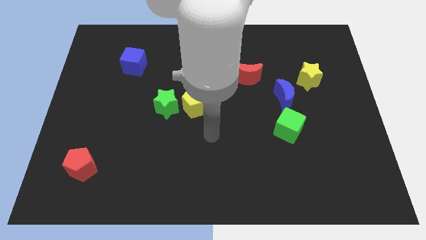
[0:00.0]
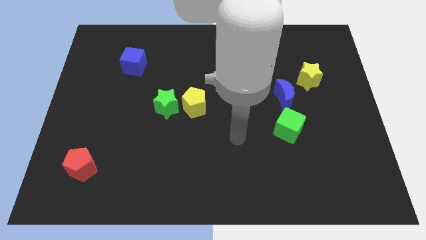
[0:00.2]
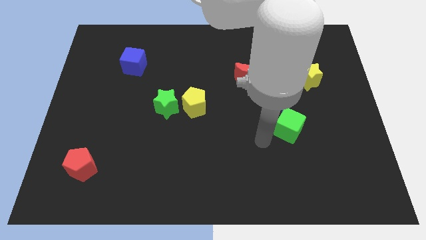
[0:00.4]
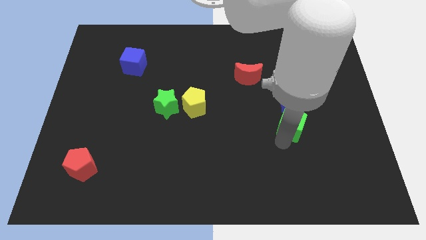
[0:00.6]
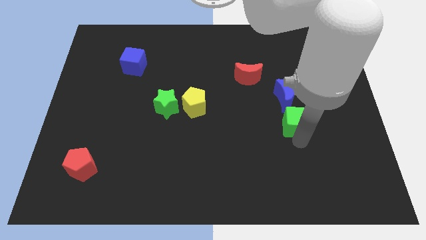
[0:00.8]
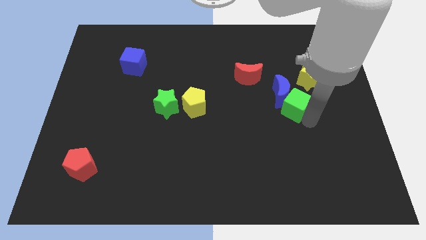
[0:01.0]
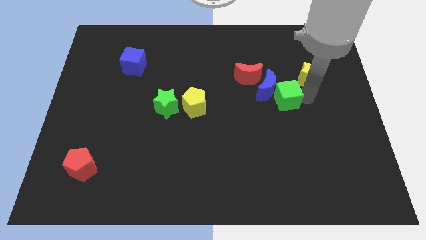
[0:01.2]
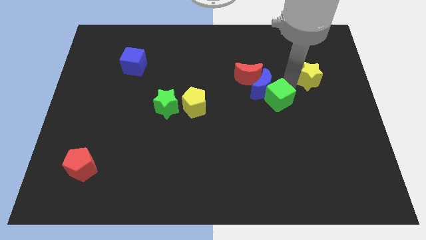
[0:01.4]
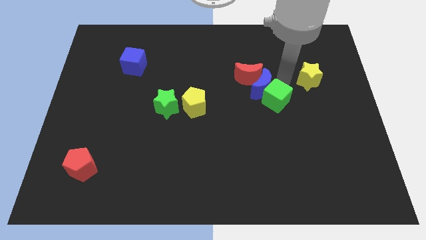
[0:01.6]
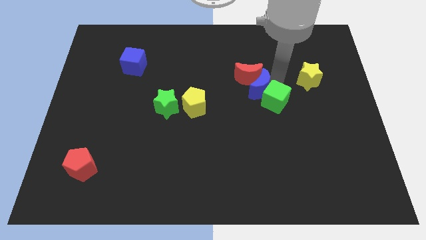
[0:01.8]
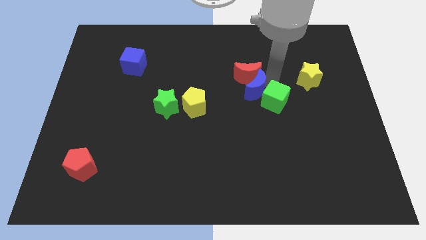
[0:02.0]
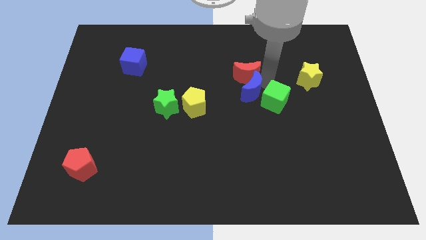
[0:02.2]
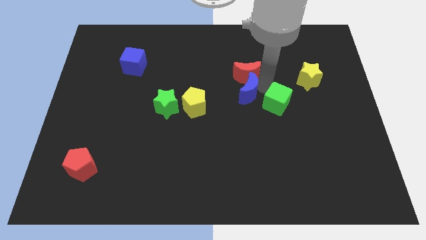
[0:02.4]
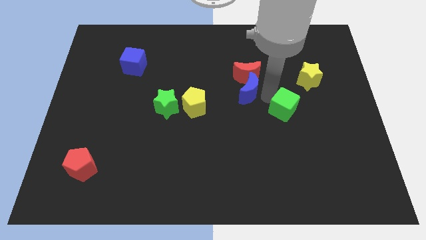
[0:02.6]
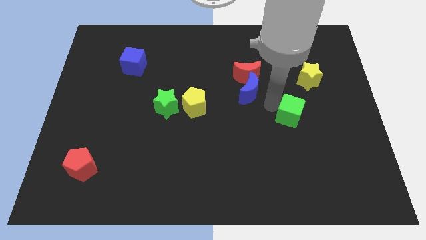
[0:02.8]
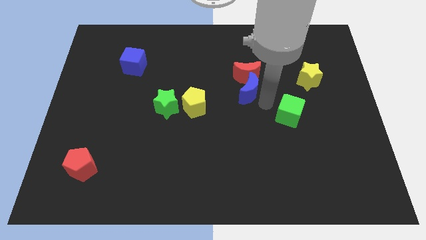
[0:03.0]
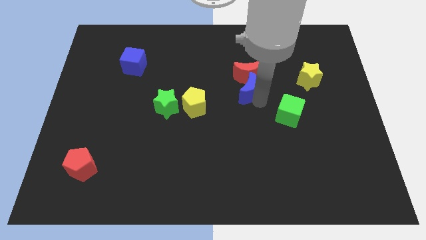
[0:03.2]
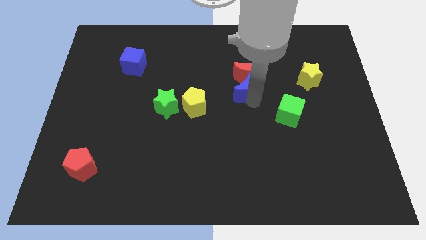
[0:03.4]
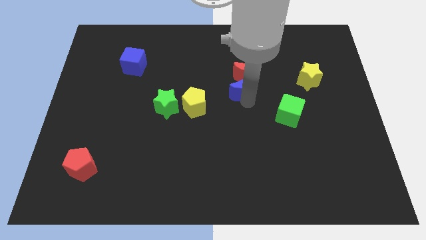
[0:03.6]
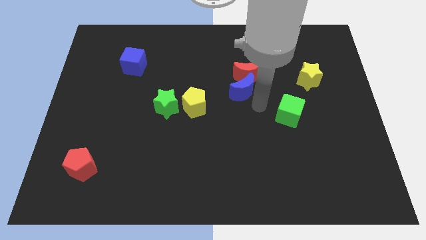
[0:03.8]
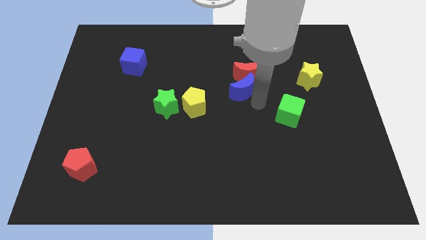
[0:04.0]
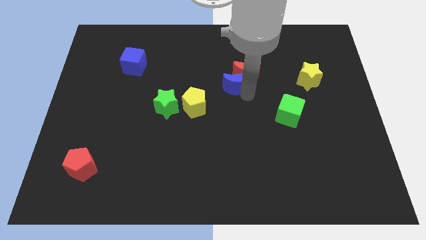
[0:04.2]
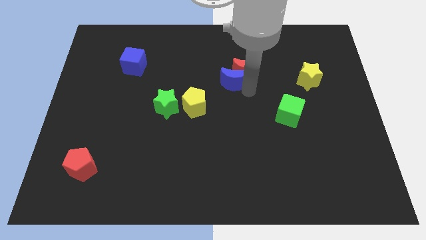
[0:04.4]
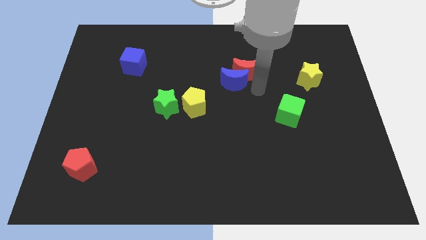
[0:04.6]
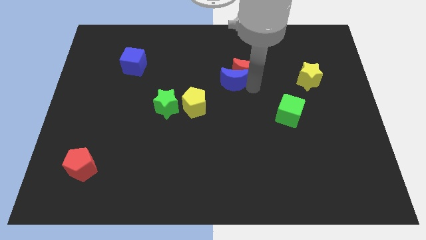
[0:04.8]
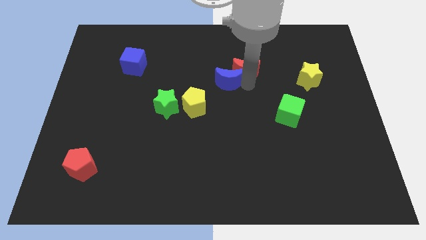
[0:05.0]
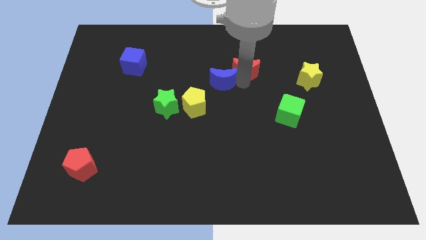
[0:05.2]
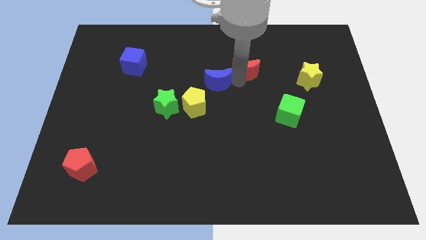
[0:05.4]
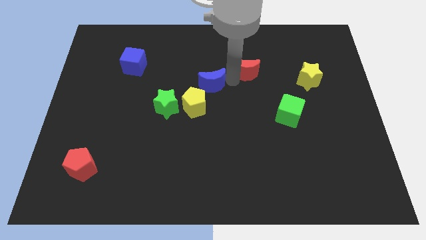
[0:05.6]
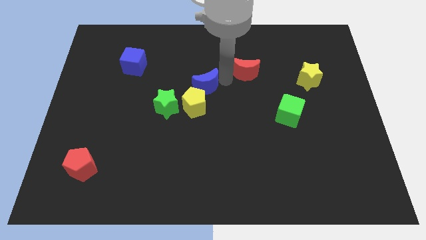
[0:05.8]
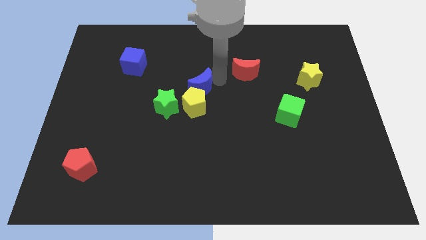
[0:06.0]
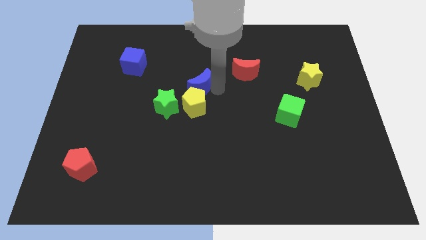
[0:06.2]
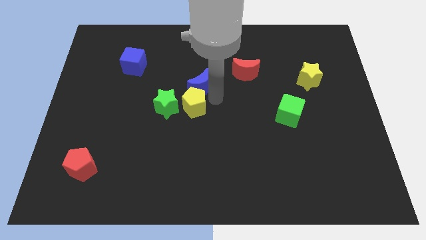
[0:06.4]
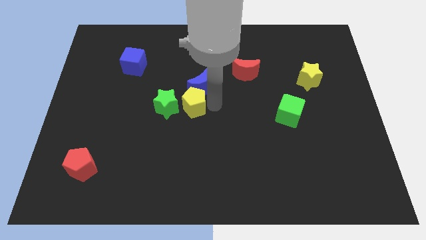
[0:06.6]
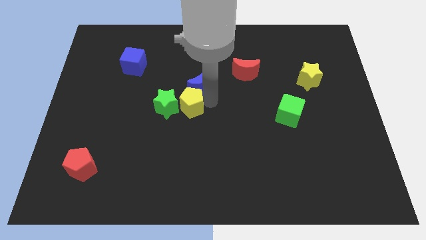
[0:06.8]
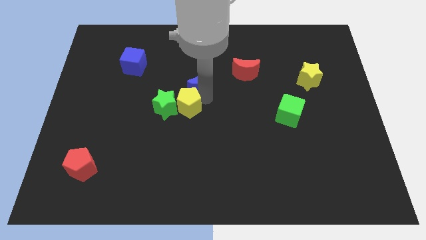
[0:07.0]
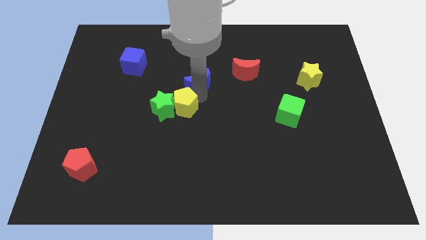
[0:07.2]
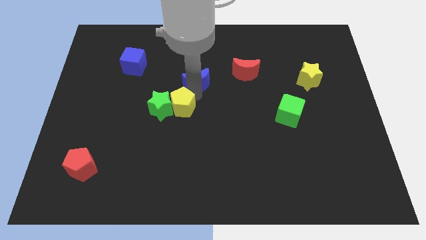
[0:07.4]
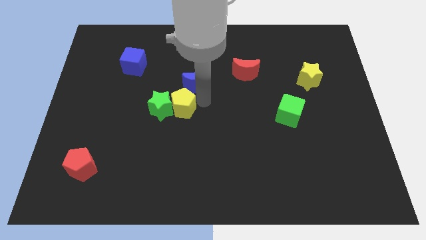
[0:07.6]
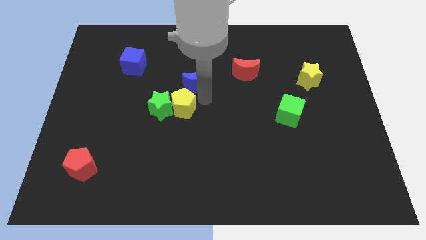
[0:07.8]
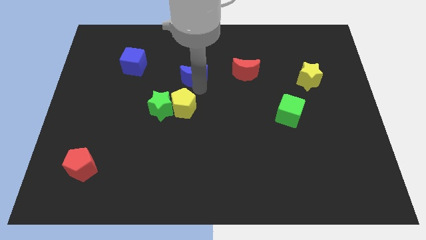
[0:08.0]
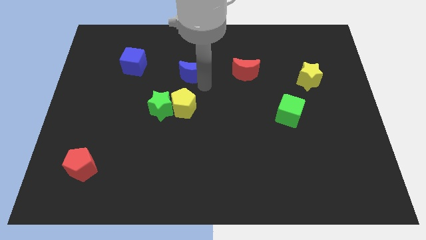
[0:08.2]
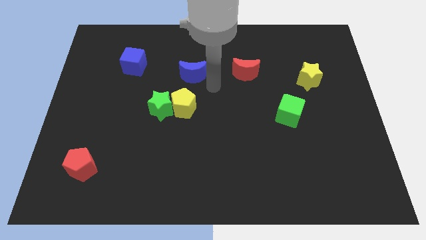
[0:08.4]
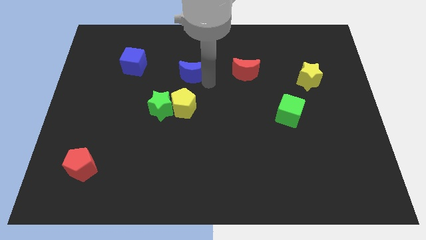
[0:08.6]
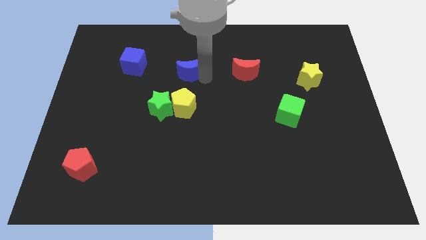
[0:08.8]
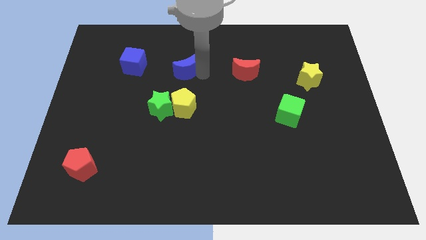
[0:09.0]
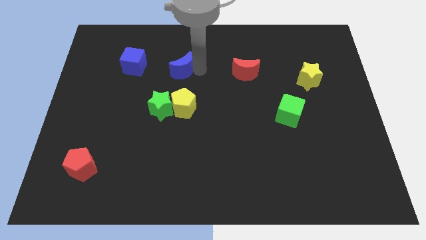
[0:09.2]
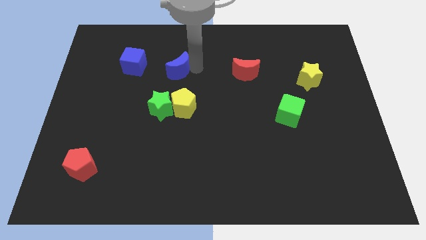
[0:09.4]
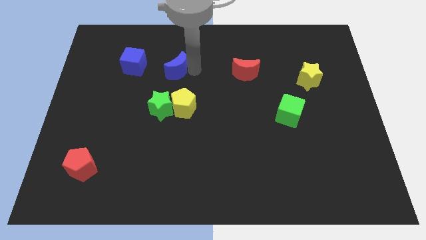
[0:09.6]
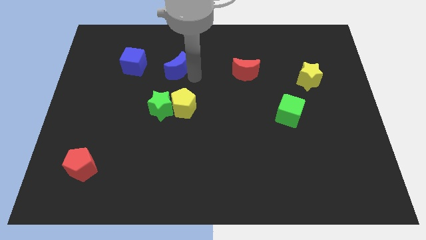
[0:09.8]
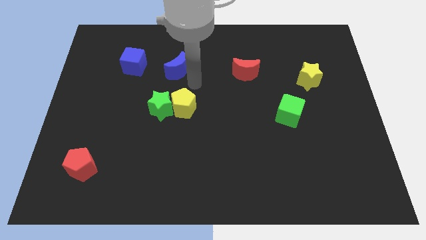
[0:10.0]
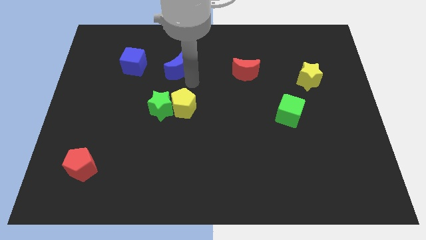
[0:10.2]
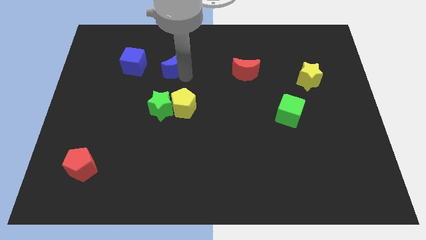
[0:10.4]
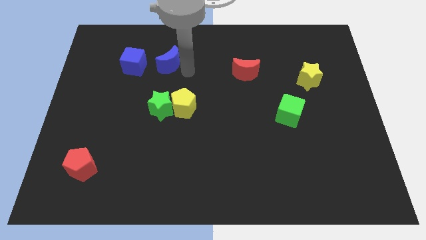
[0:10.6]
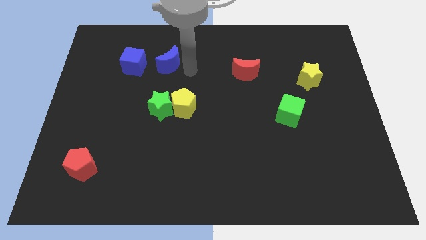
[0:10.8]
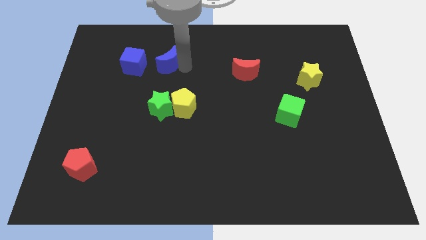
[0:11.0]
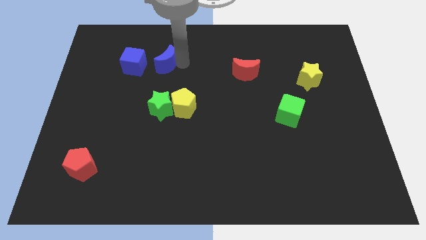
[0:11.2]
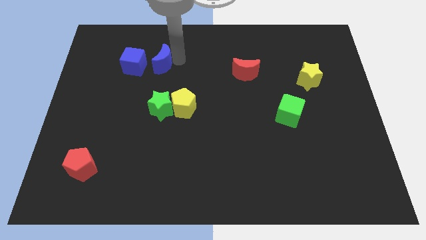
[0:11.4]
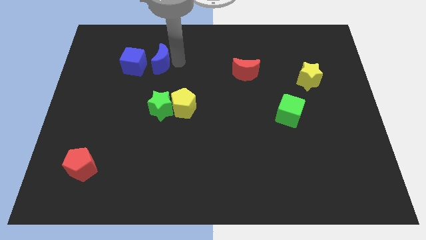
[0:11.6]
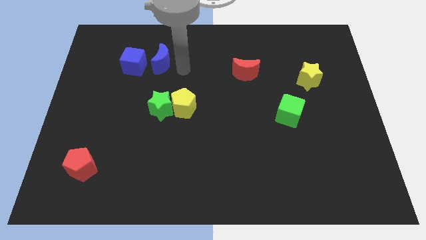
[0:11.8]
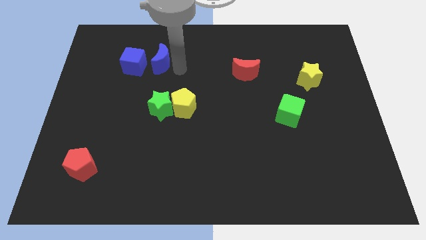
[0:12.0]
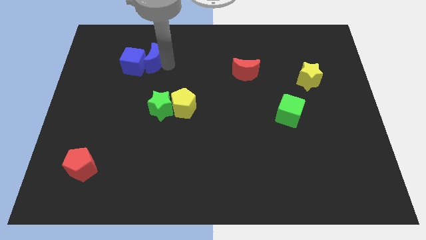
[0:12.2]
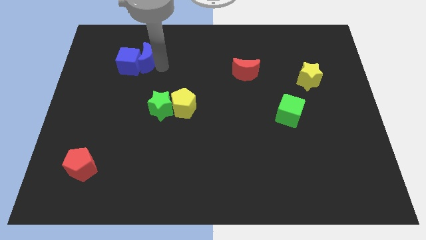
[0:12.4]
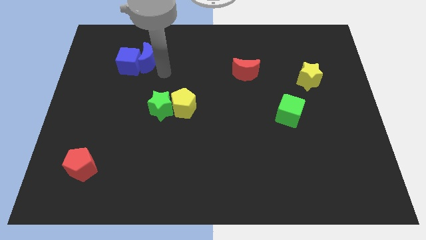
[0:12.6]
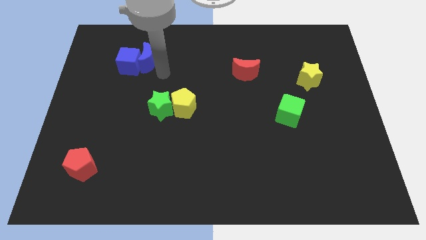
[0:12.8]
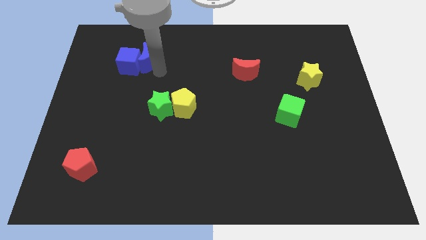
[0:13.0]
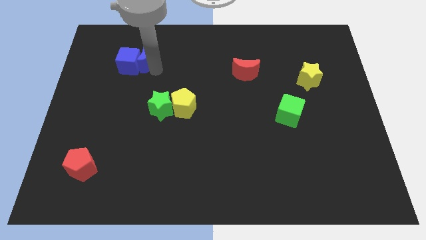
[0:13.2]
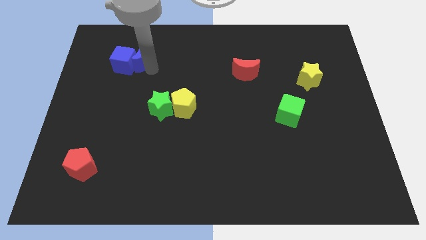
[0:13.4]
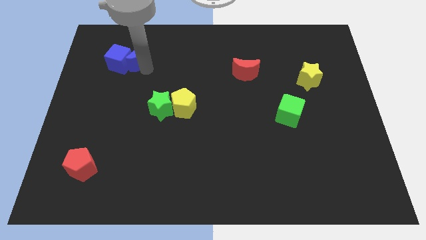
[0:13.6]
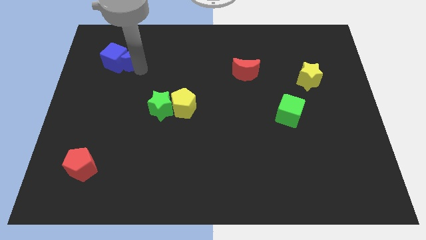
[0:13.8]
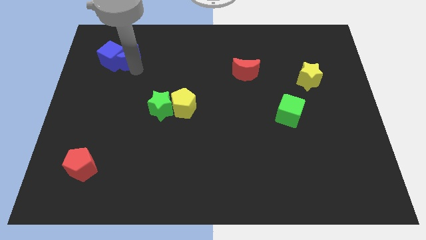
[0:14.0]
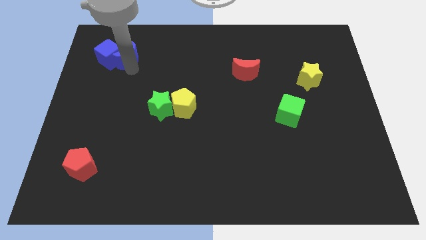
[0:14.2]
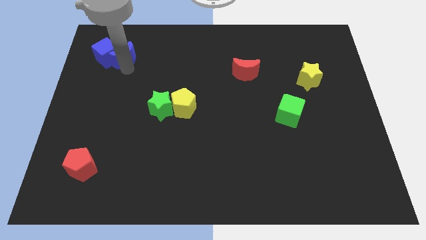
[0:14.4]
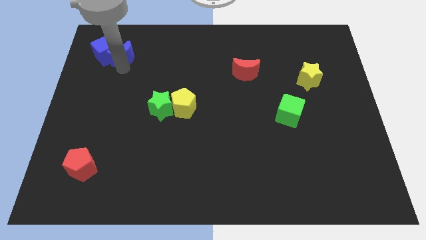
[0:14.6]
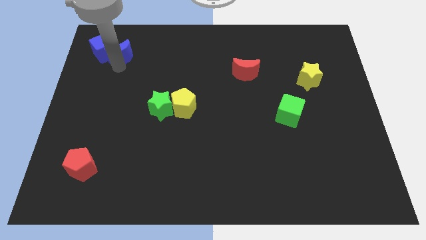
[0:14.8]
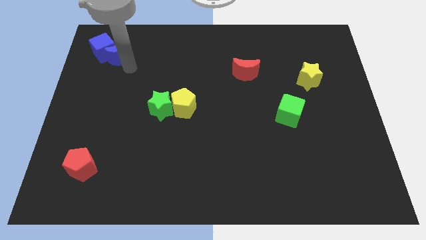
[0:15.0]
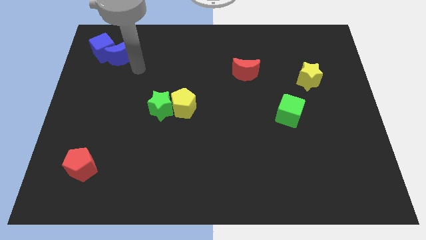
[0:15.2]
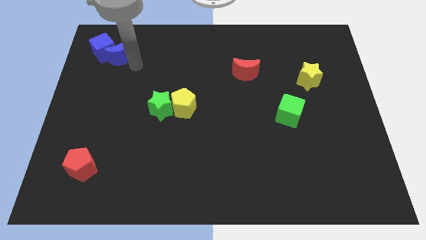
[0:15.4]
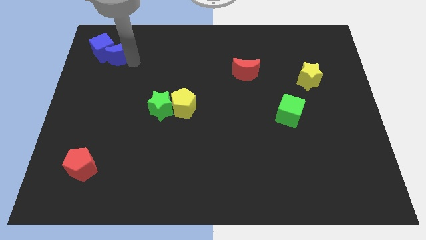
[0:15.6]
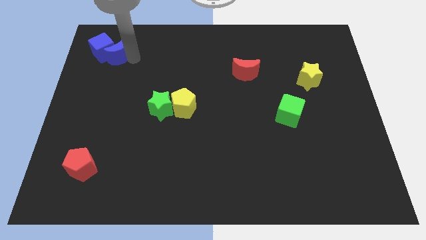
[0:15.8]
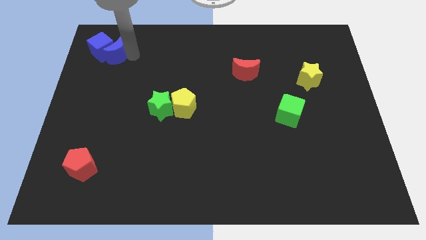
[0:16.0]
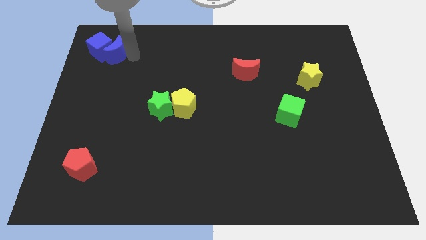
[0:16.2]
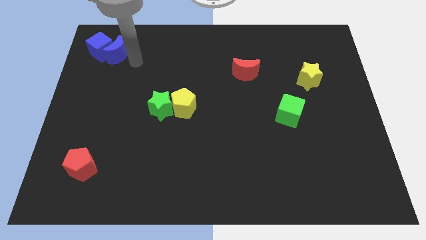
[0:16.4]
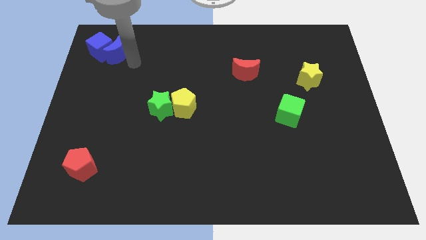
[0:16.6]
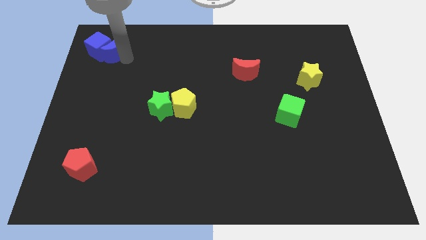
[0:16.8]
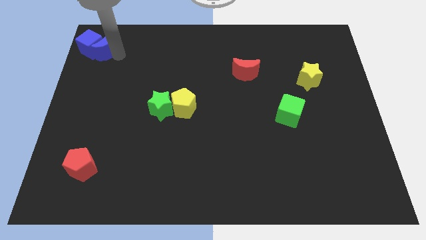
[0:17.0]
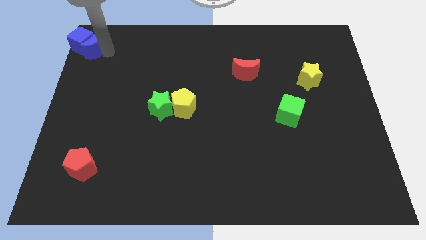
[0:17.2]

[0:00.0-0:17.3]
move the blue moon to the top left
